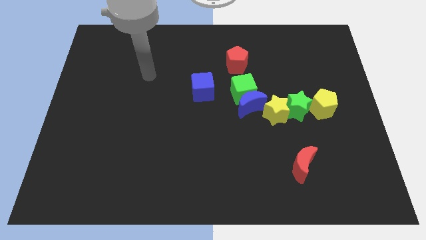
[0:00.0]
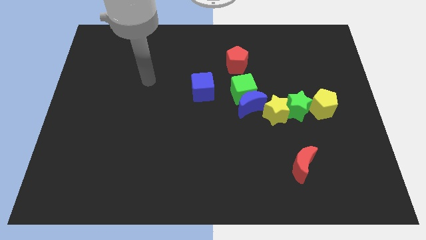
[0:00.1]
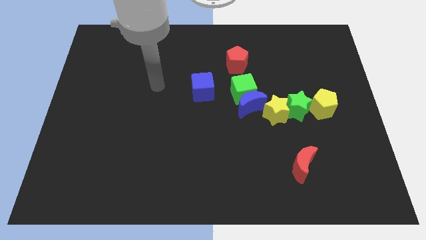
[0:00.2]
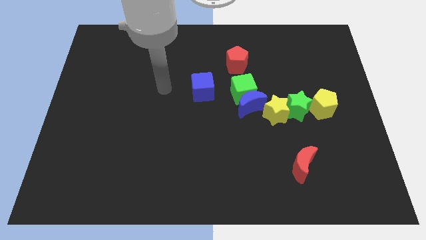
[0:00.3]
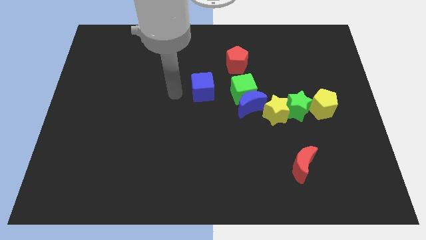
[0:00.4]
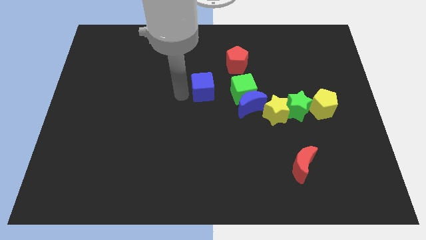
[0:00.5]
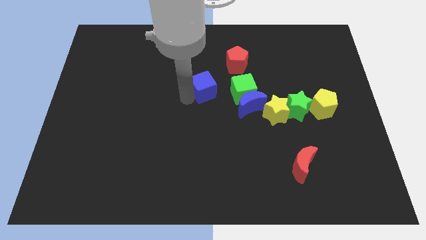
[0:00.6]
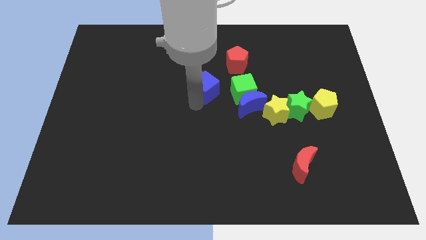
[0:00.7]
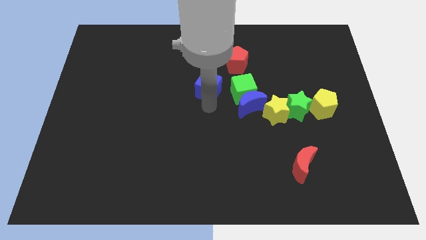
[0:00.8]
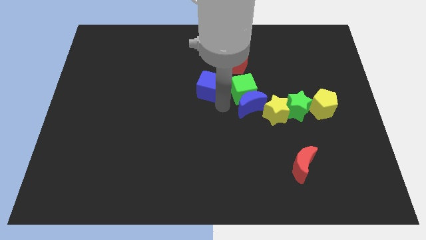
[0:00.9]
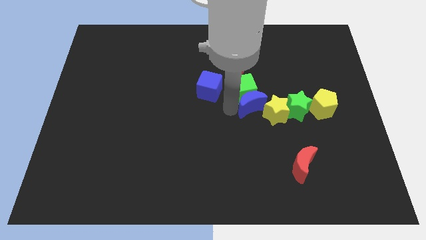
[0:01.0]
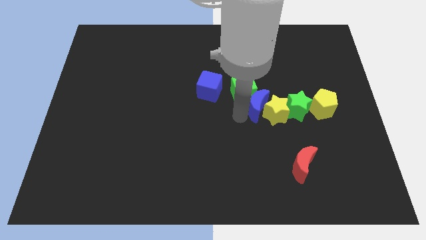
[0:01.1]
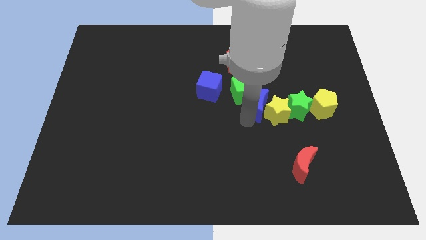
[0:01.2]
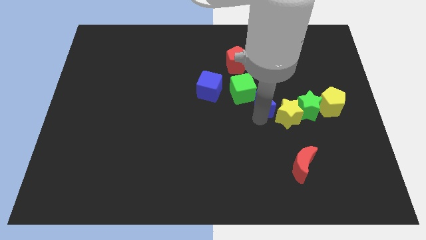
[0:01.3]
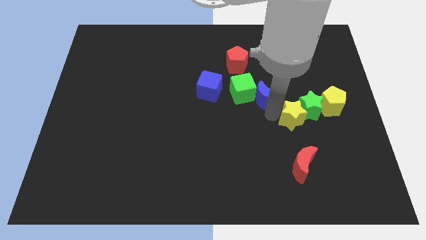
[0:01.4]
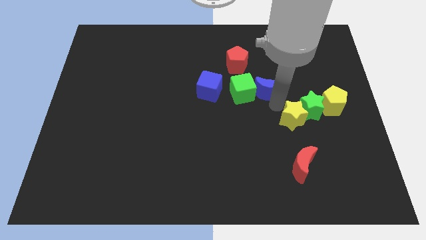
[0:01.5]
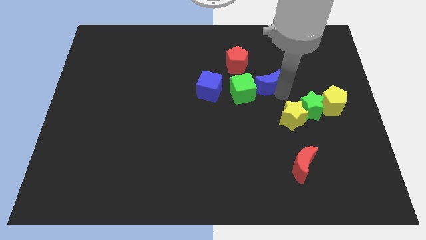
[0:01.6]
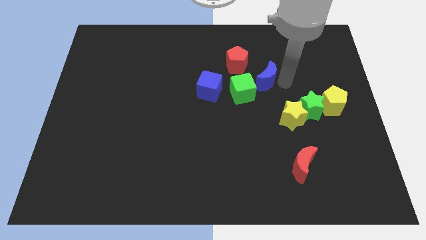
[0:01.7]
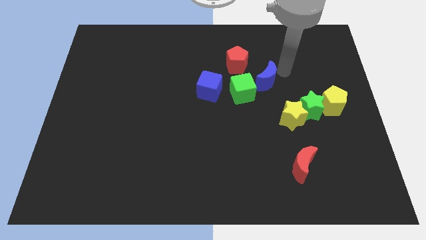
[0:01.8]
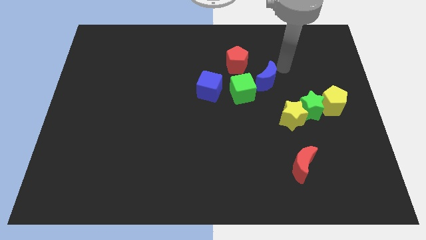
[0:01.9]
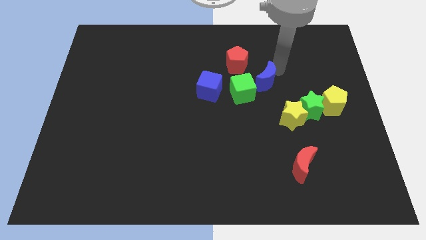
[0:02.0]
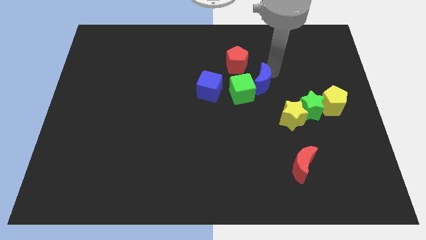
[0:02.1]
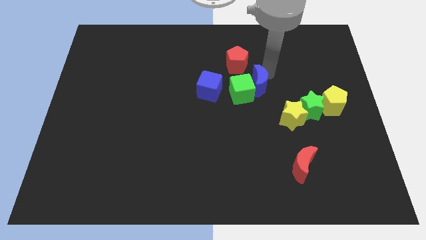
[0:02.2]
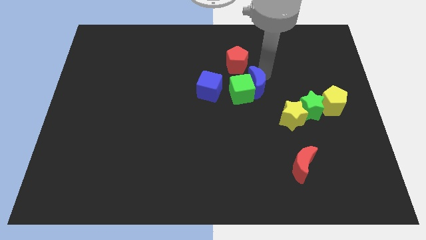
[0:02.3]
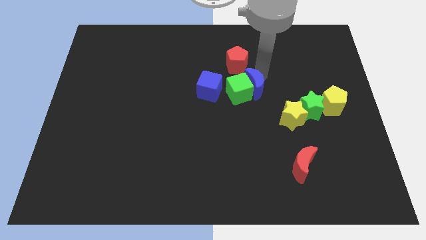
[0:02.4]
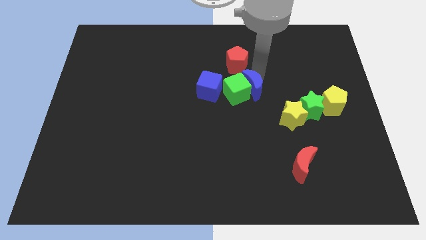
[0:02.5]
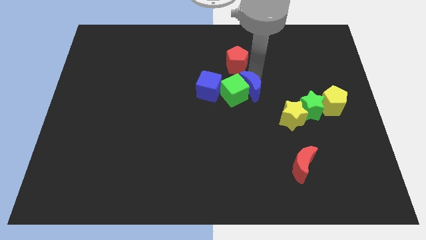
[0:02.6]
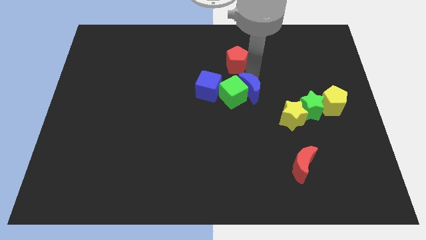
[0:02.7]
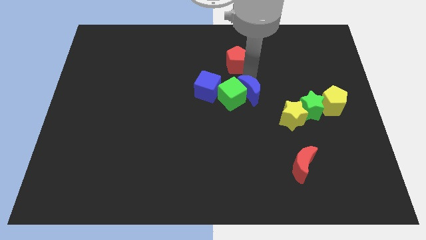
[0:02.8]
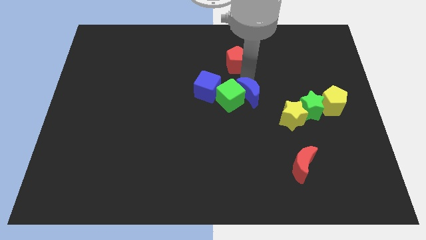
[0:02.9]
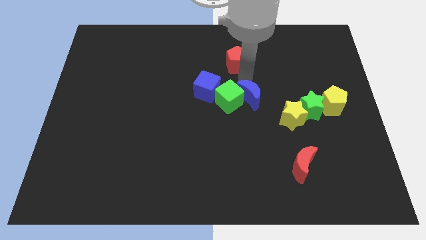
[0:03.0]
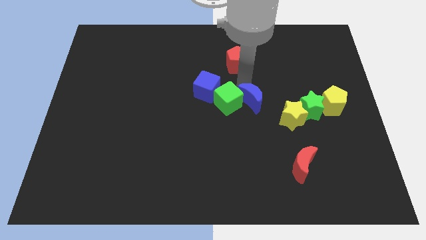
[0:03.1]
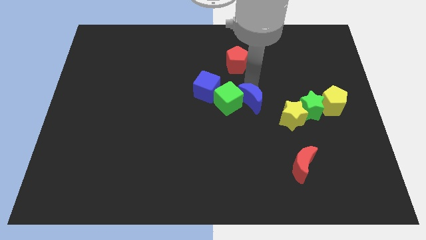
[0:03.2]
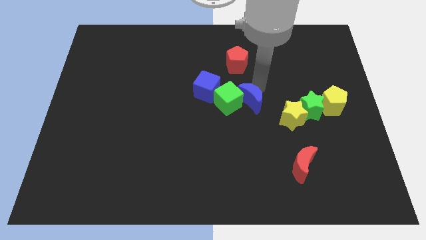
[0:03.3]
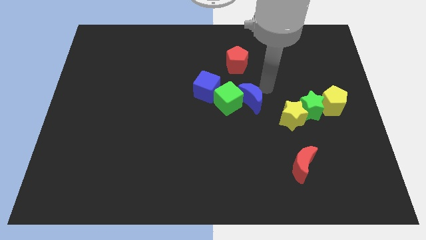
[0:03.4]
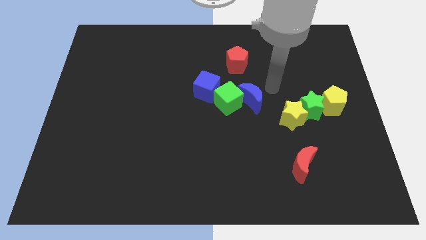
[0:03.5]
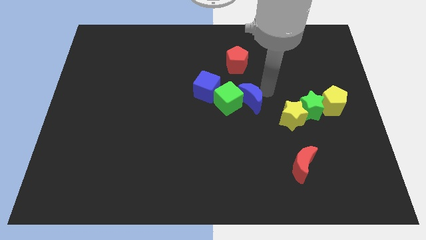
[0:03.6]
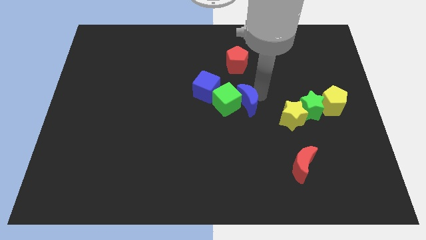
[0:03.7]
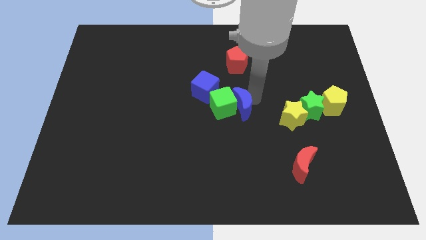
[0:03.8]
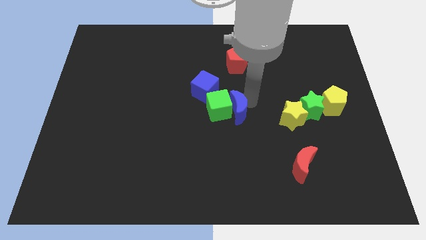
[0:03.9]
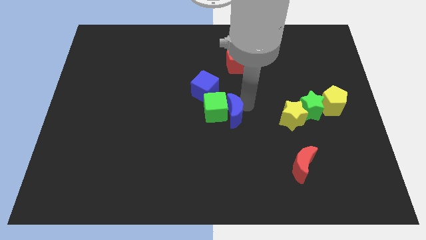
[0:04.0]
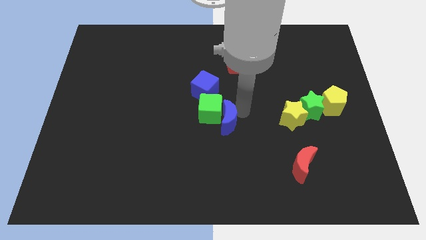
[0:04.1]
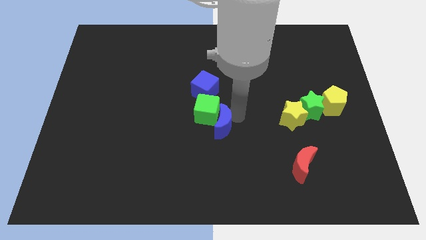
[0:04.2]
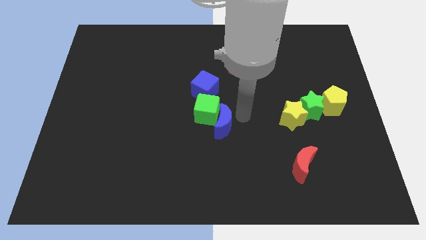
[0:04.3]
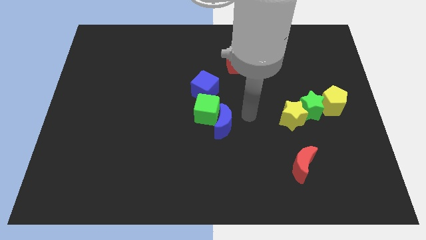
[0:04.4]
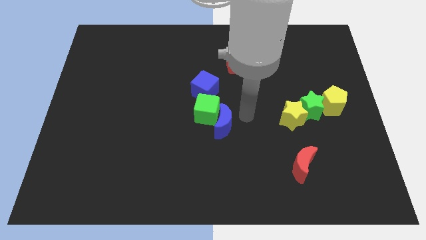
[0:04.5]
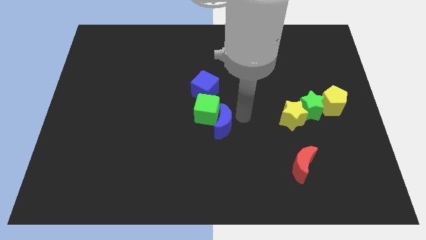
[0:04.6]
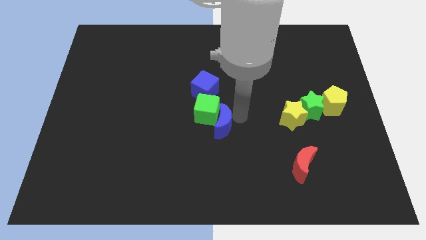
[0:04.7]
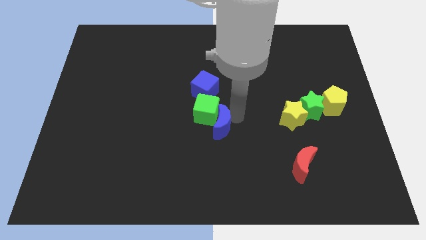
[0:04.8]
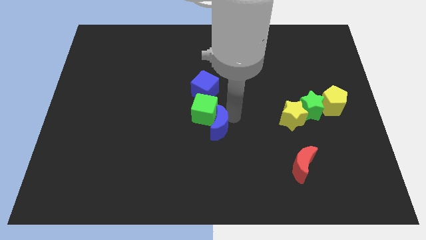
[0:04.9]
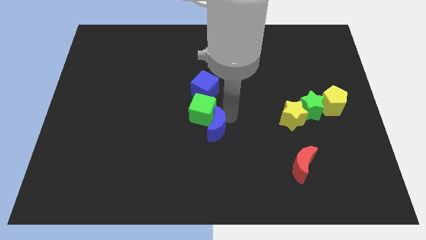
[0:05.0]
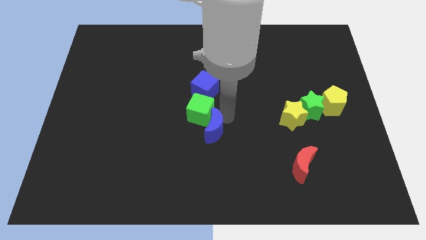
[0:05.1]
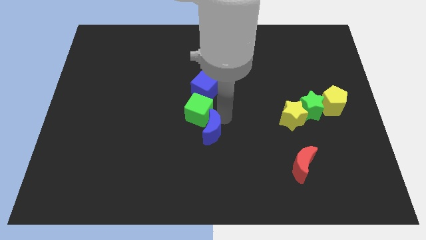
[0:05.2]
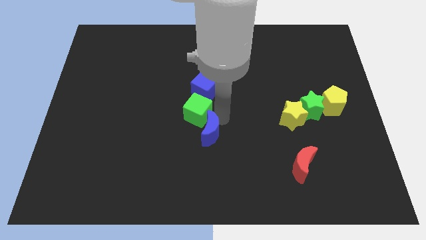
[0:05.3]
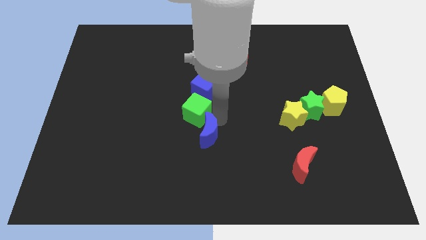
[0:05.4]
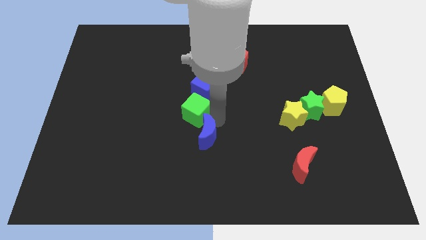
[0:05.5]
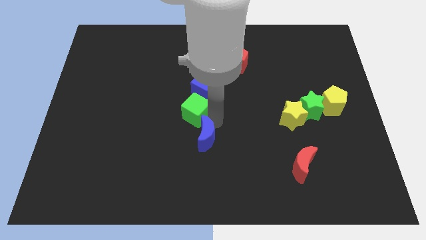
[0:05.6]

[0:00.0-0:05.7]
pull the blue moon apart from the green cube and yellow star

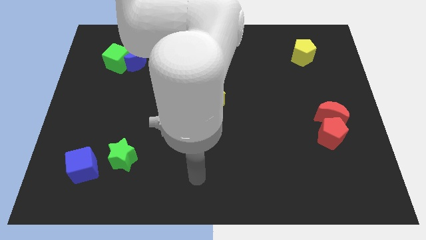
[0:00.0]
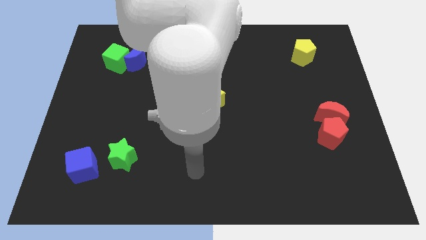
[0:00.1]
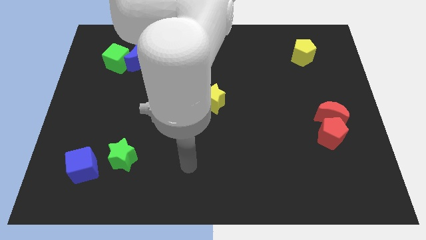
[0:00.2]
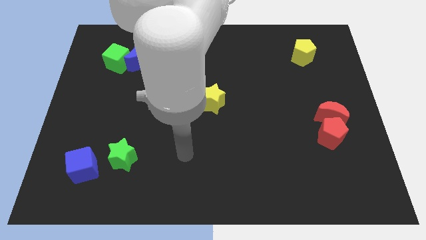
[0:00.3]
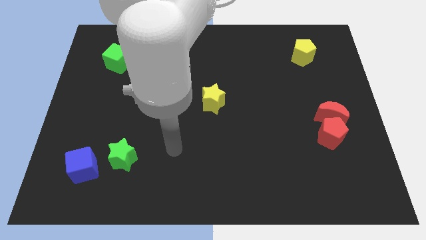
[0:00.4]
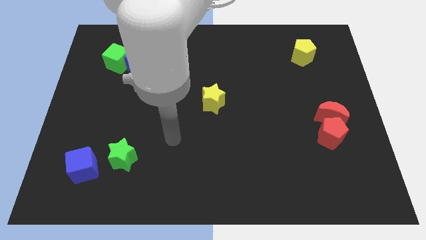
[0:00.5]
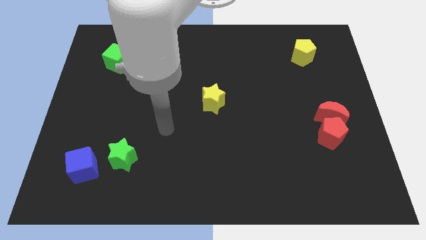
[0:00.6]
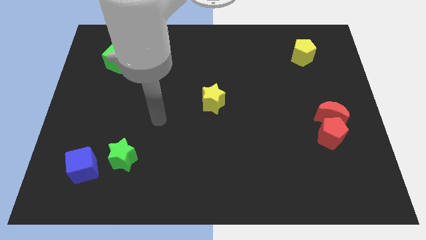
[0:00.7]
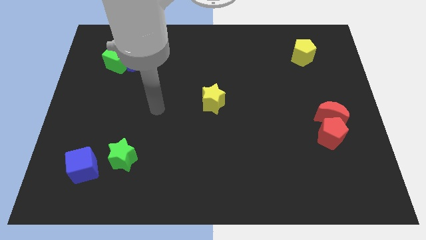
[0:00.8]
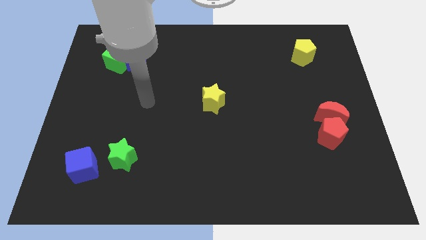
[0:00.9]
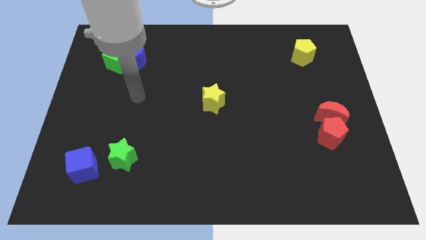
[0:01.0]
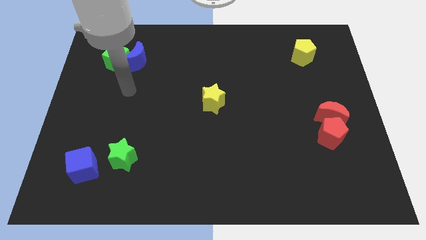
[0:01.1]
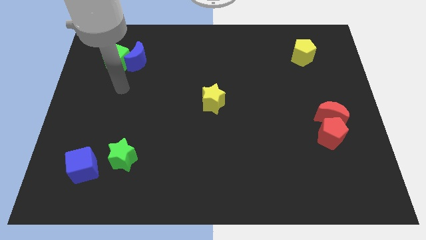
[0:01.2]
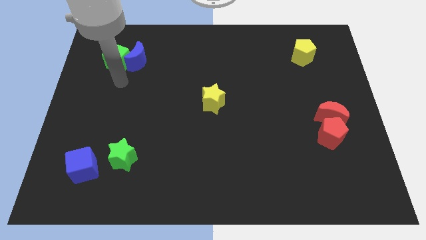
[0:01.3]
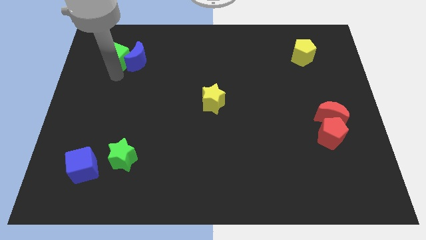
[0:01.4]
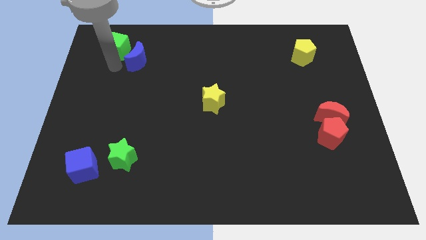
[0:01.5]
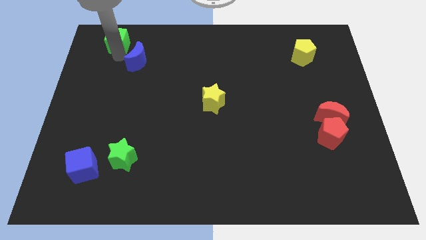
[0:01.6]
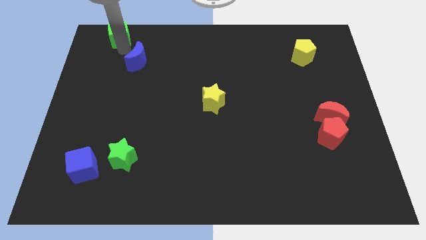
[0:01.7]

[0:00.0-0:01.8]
move the blue moon away from the green cube

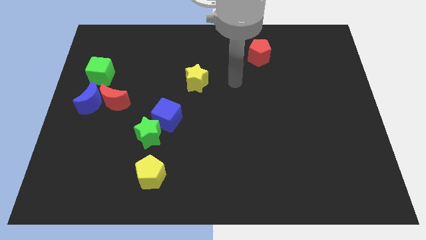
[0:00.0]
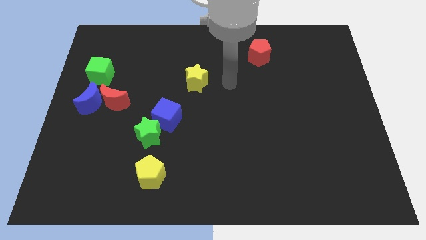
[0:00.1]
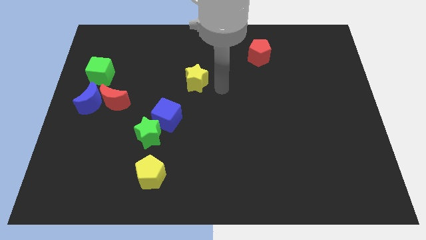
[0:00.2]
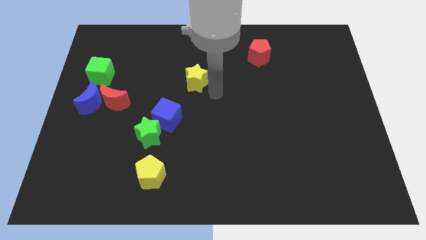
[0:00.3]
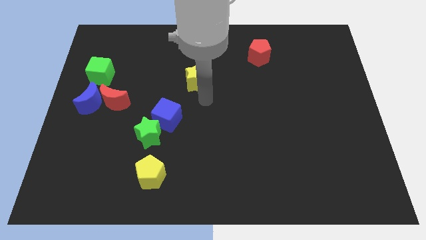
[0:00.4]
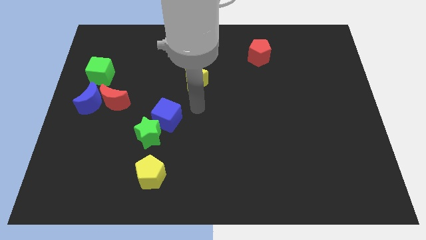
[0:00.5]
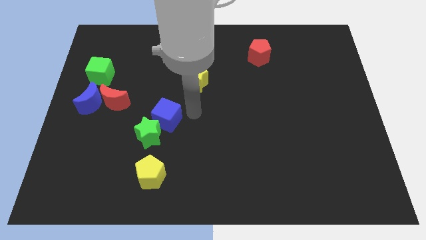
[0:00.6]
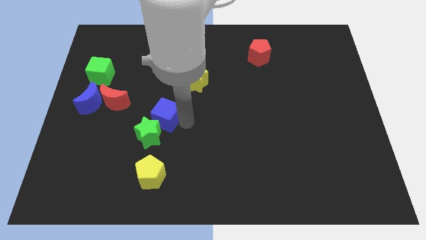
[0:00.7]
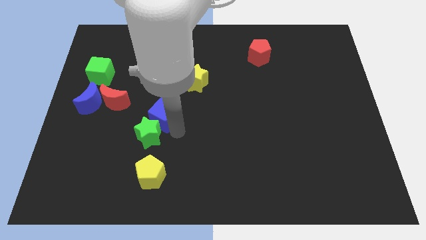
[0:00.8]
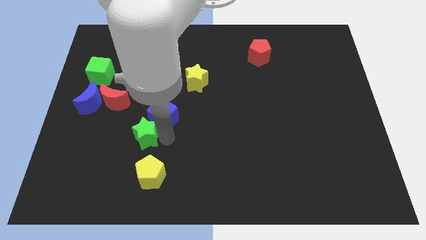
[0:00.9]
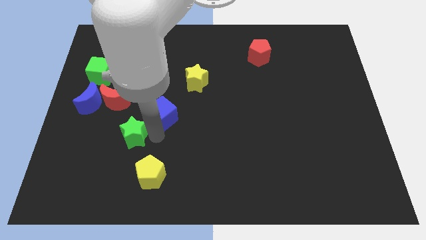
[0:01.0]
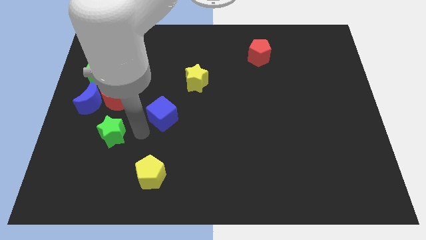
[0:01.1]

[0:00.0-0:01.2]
separate the blue cube from the green star

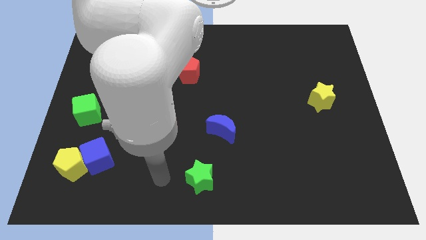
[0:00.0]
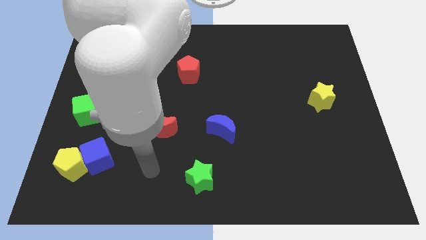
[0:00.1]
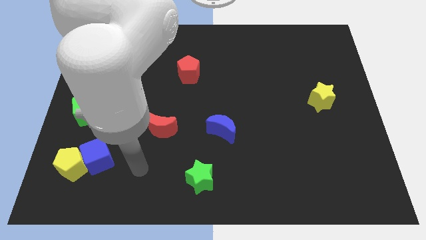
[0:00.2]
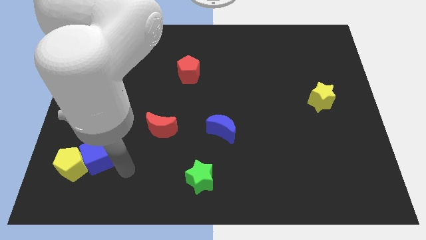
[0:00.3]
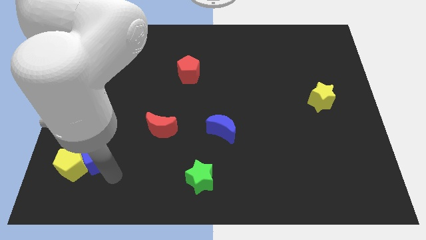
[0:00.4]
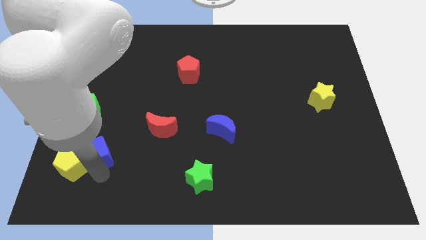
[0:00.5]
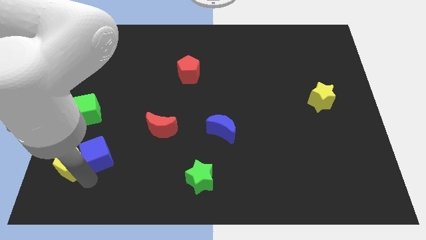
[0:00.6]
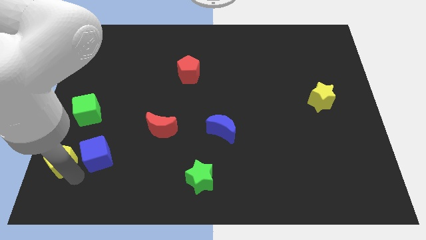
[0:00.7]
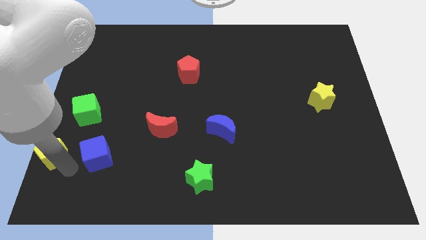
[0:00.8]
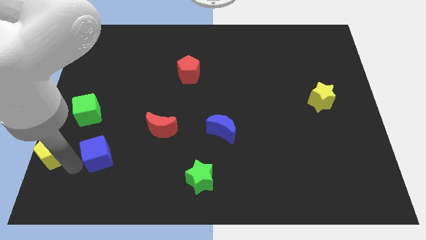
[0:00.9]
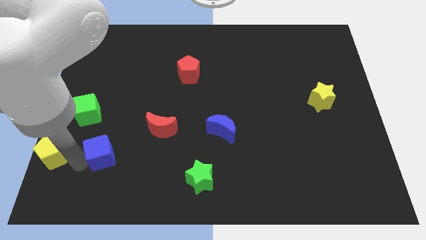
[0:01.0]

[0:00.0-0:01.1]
separate the blue cube from the yellow pentagon
